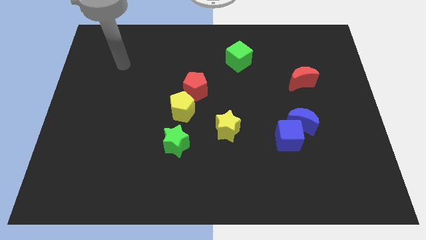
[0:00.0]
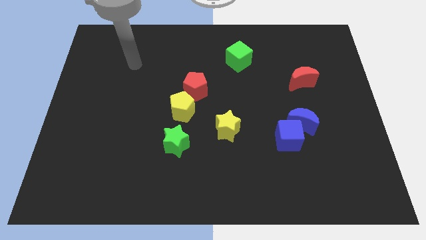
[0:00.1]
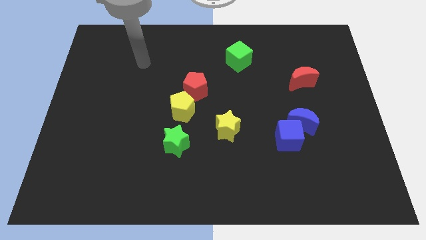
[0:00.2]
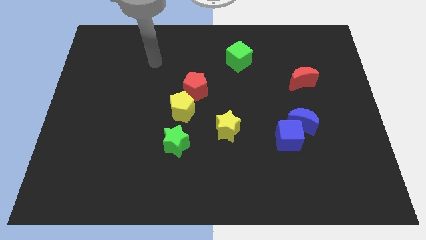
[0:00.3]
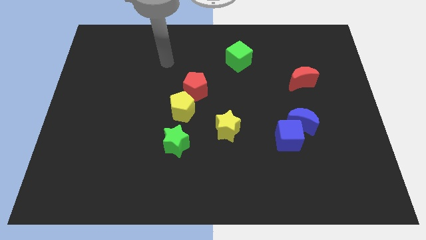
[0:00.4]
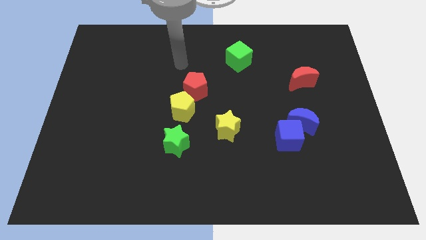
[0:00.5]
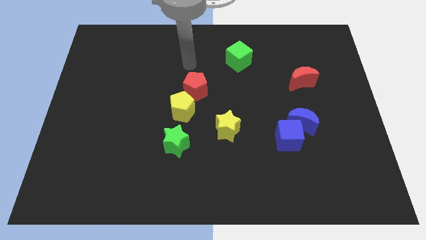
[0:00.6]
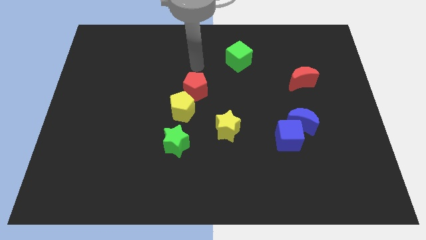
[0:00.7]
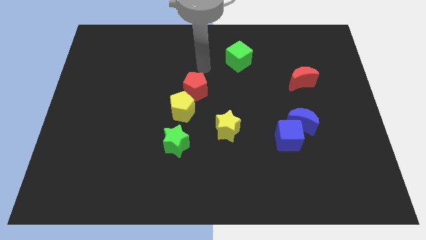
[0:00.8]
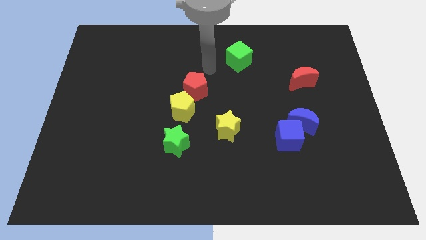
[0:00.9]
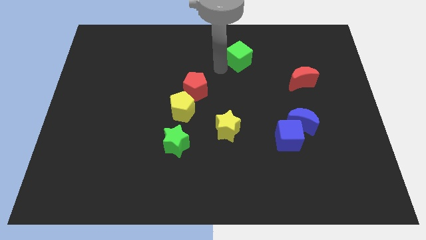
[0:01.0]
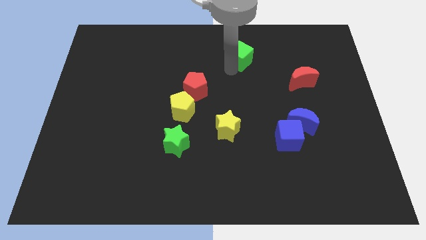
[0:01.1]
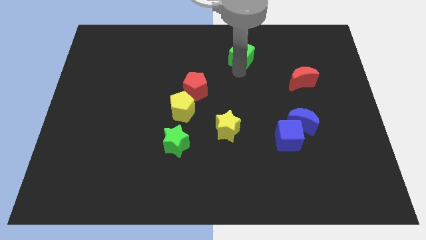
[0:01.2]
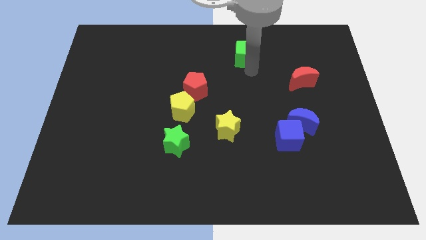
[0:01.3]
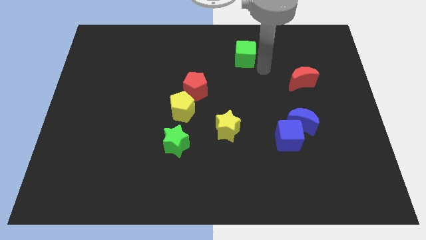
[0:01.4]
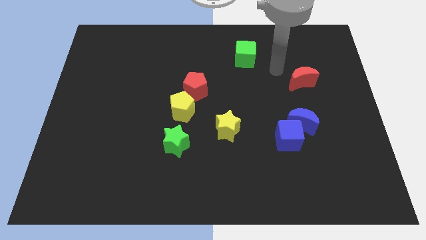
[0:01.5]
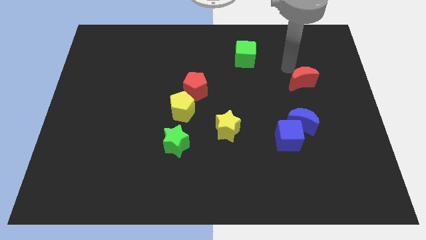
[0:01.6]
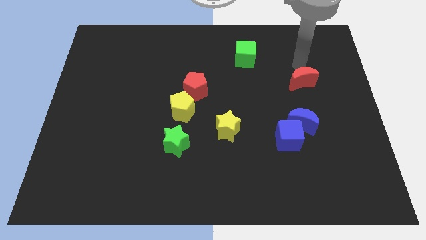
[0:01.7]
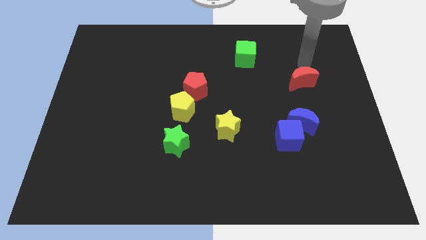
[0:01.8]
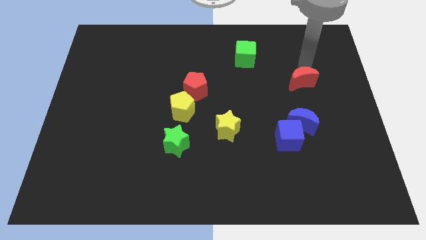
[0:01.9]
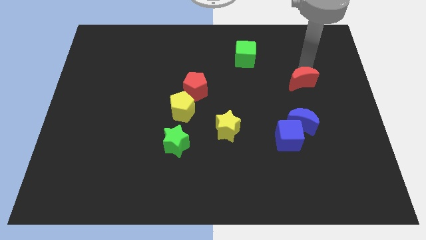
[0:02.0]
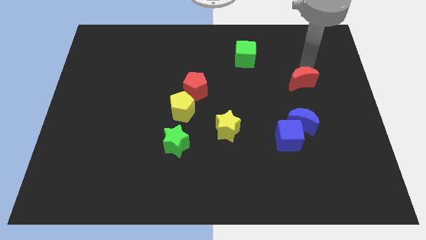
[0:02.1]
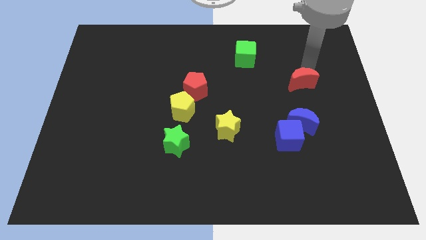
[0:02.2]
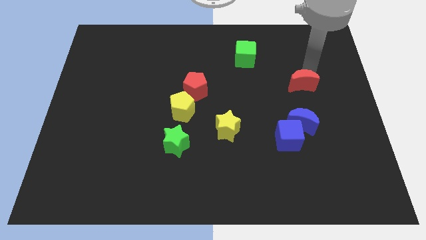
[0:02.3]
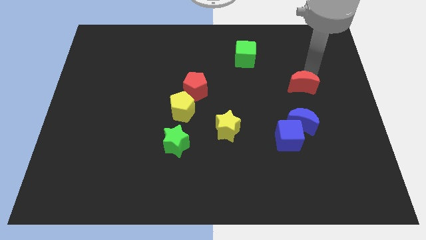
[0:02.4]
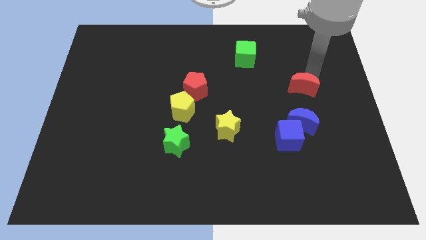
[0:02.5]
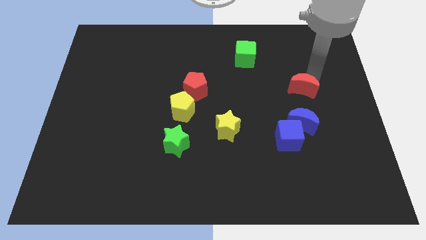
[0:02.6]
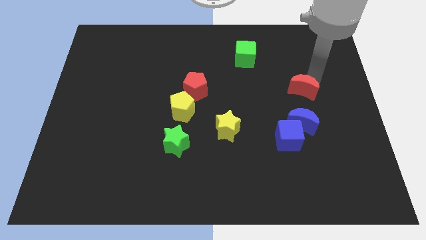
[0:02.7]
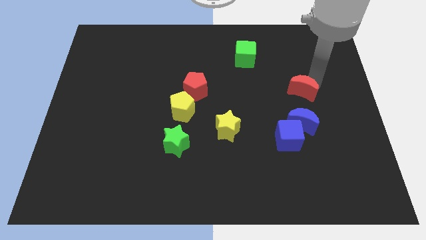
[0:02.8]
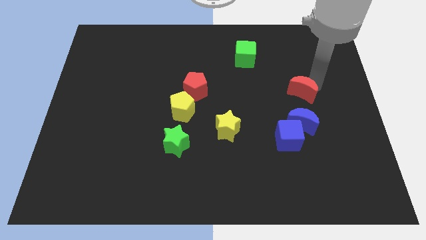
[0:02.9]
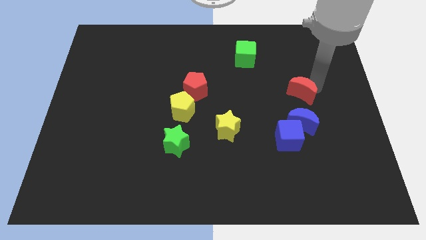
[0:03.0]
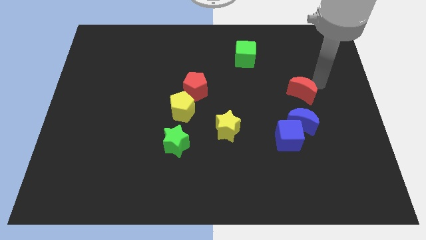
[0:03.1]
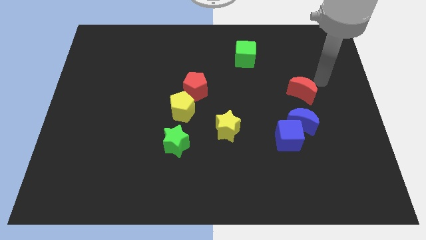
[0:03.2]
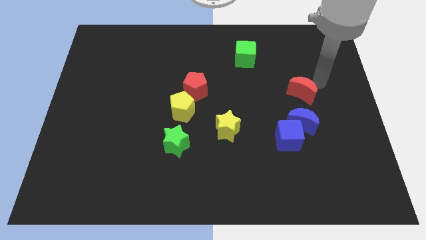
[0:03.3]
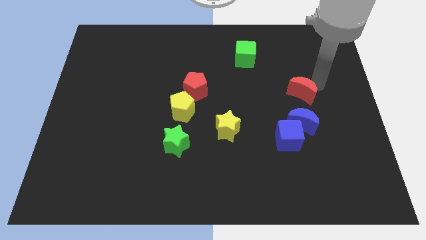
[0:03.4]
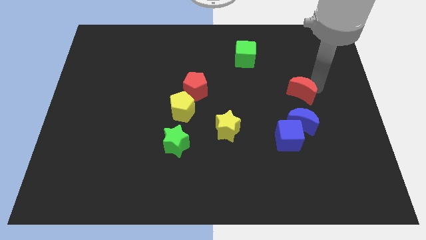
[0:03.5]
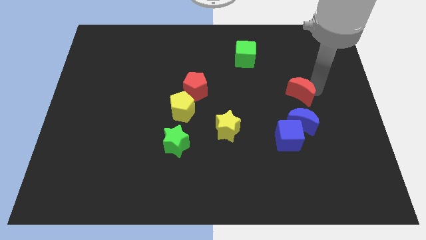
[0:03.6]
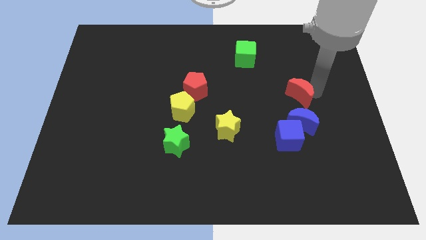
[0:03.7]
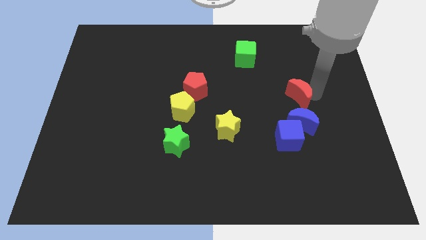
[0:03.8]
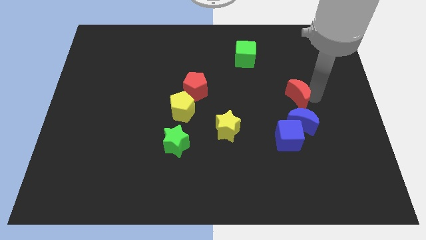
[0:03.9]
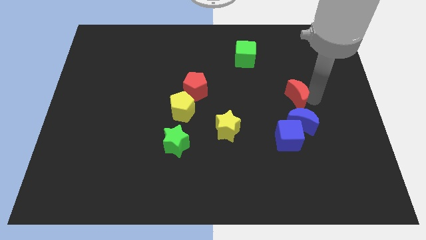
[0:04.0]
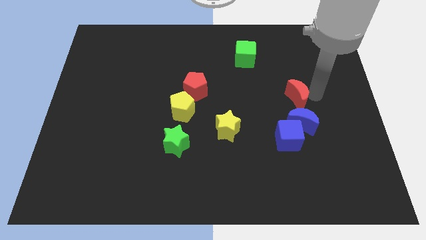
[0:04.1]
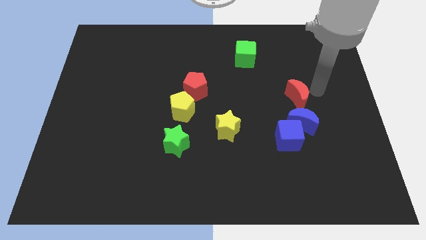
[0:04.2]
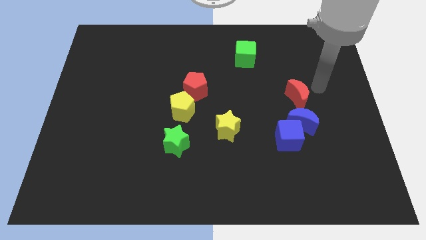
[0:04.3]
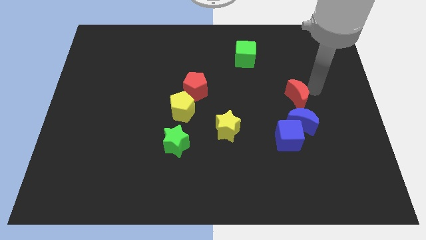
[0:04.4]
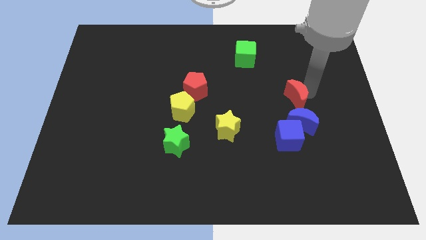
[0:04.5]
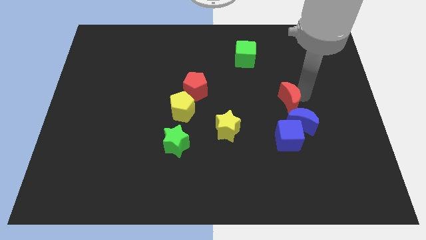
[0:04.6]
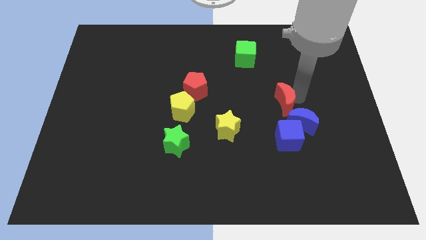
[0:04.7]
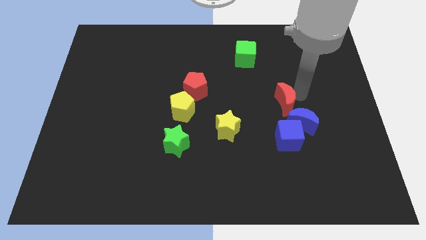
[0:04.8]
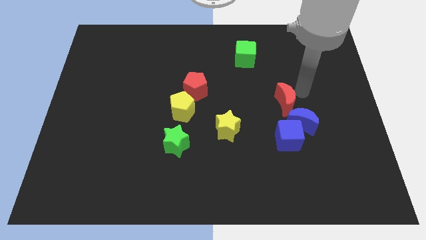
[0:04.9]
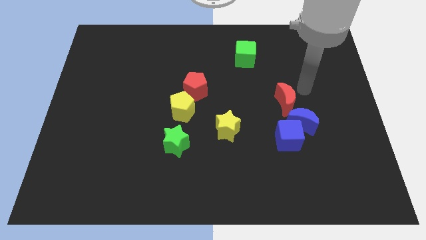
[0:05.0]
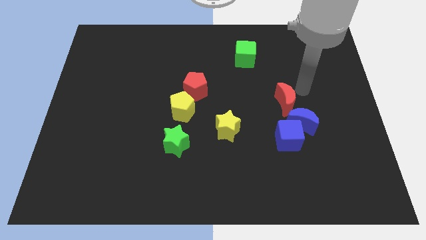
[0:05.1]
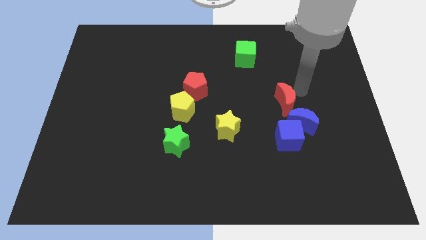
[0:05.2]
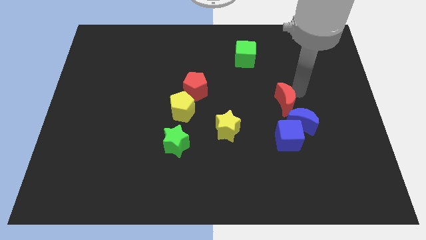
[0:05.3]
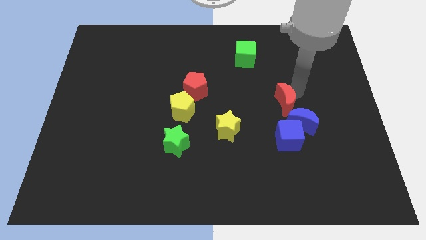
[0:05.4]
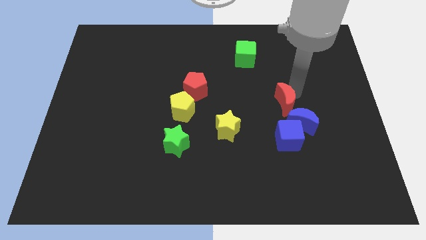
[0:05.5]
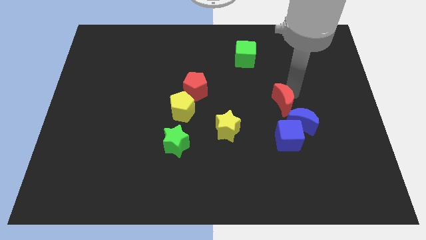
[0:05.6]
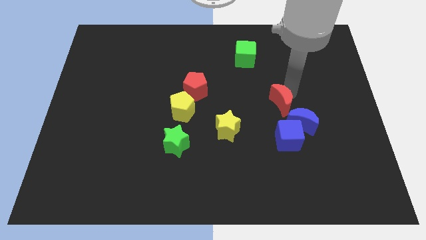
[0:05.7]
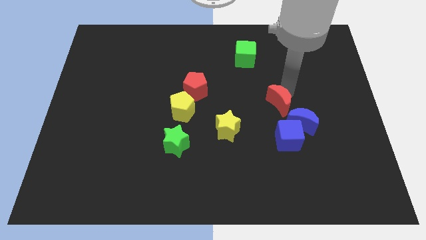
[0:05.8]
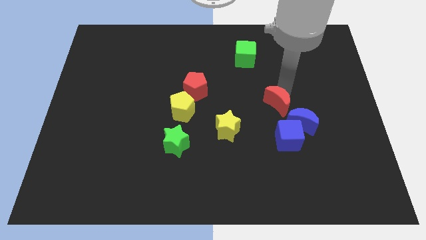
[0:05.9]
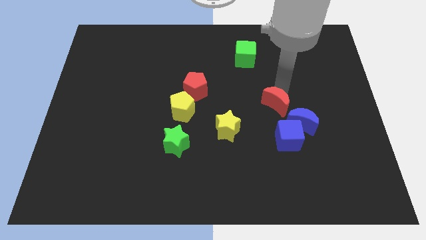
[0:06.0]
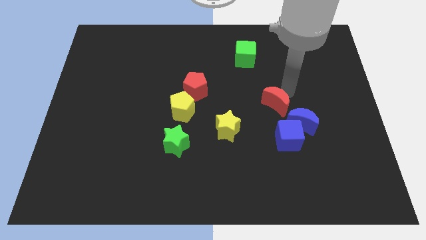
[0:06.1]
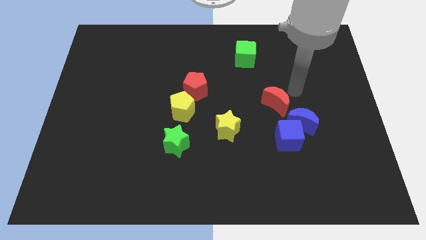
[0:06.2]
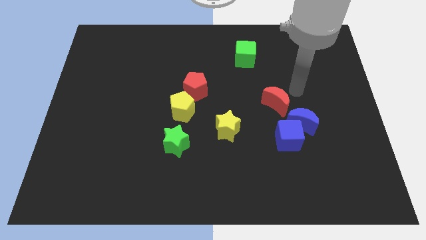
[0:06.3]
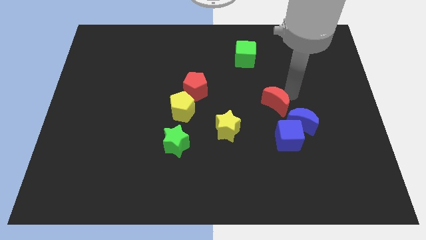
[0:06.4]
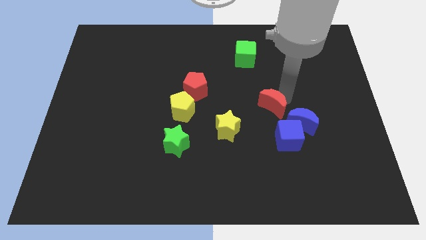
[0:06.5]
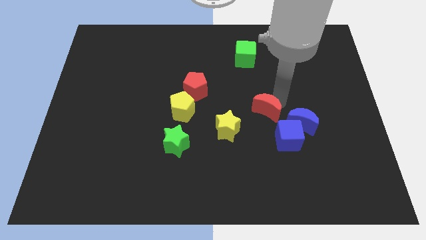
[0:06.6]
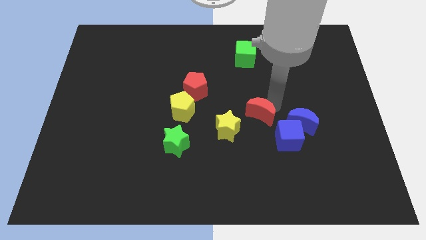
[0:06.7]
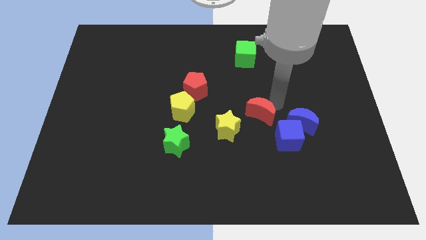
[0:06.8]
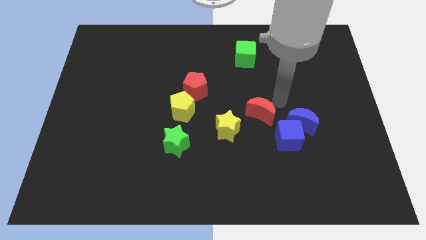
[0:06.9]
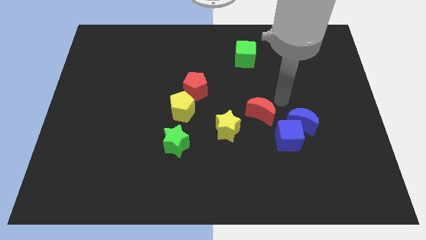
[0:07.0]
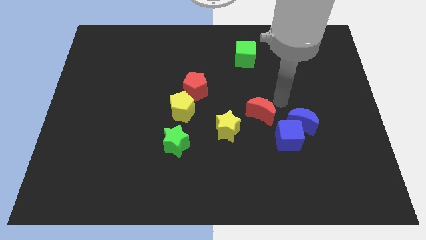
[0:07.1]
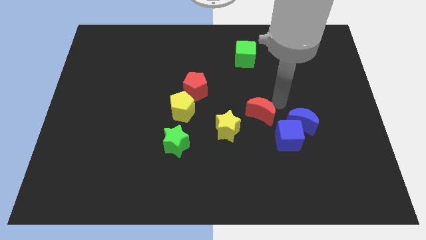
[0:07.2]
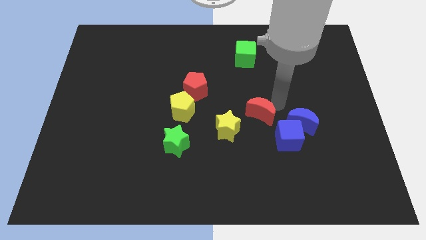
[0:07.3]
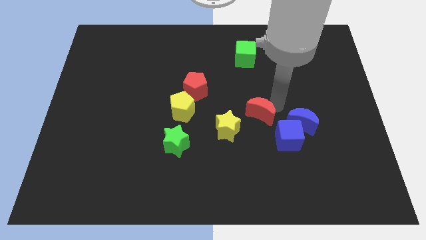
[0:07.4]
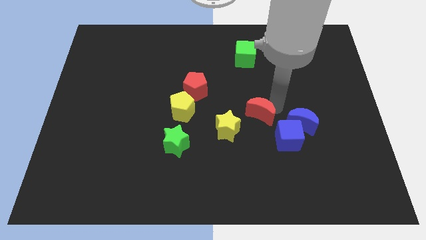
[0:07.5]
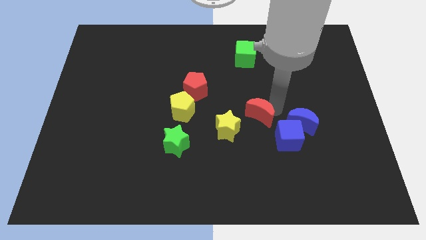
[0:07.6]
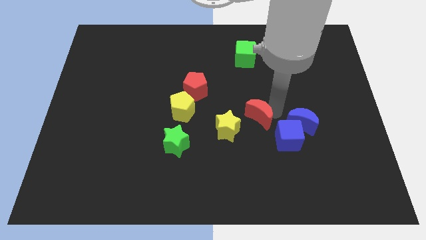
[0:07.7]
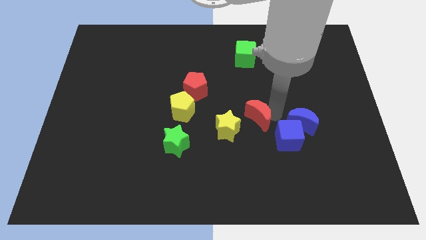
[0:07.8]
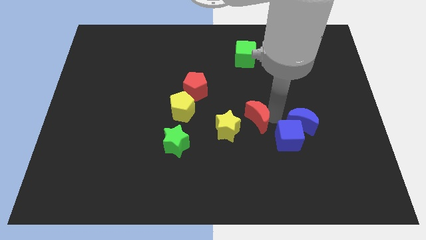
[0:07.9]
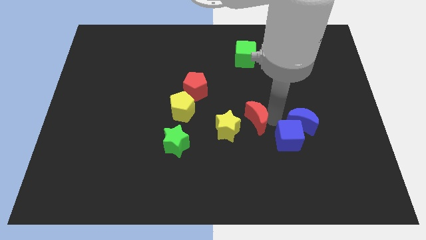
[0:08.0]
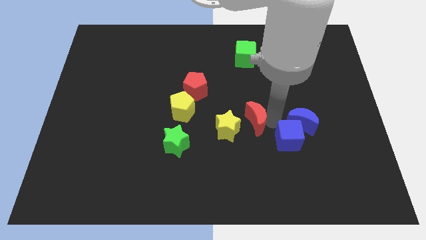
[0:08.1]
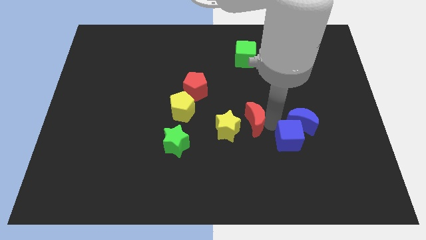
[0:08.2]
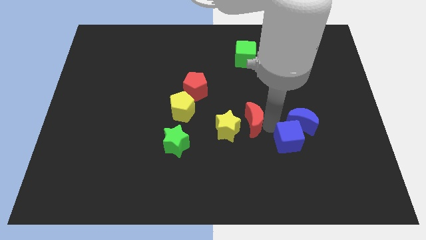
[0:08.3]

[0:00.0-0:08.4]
slide the red moon close to the yellow star
